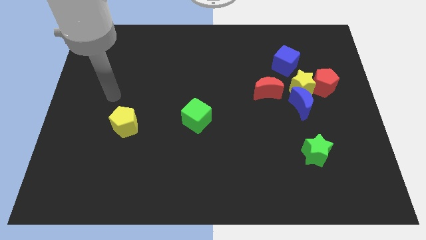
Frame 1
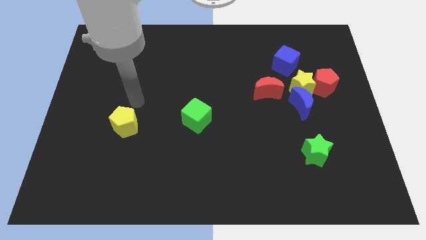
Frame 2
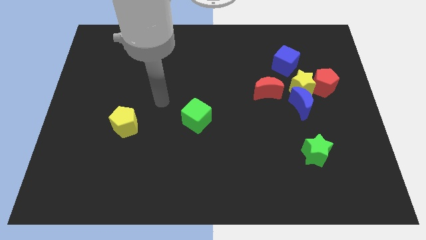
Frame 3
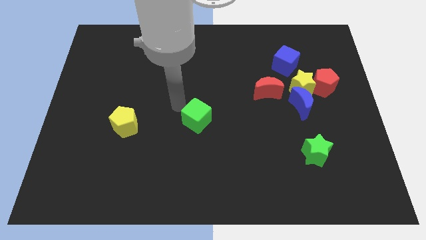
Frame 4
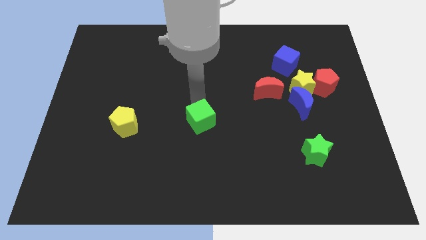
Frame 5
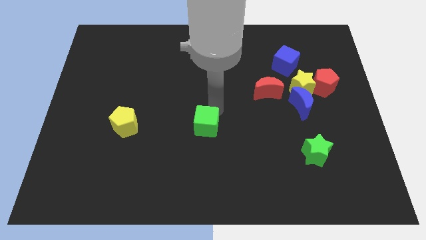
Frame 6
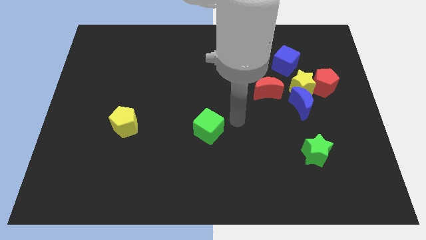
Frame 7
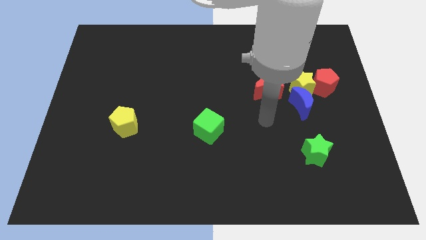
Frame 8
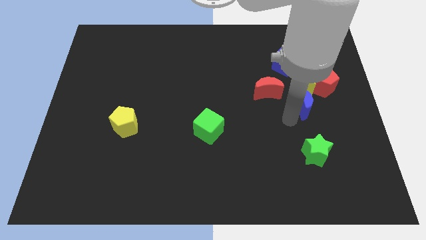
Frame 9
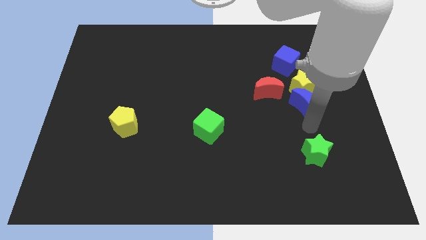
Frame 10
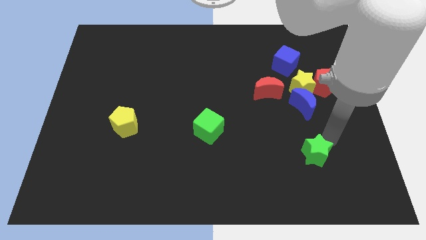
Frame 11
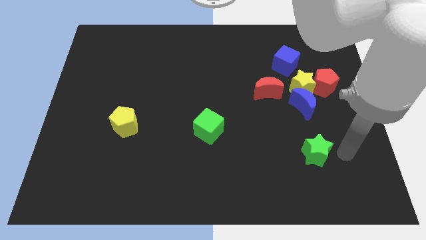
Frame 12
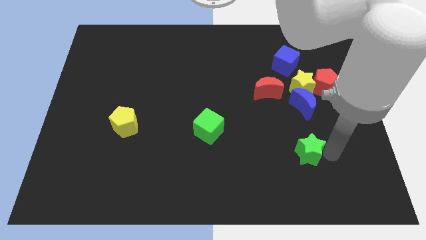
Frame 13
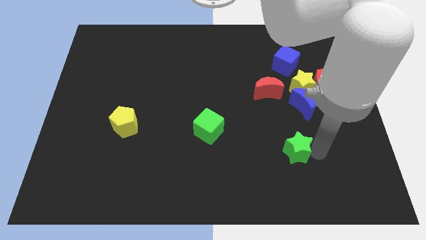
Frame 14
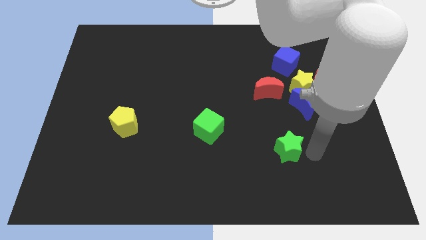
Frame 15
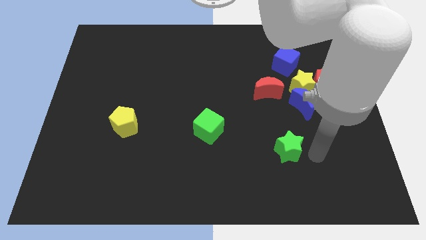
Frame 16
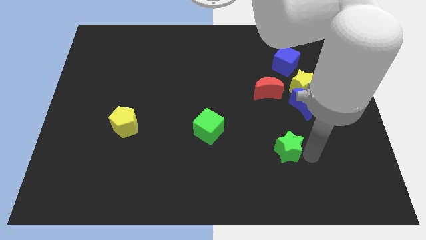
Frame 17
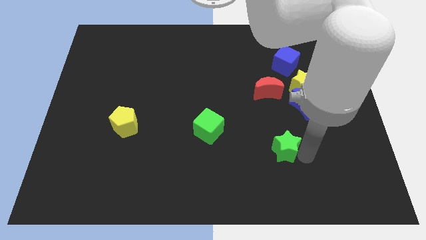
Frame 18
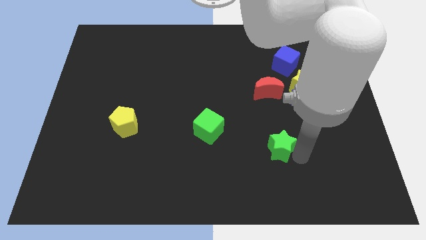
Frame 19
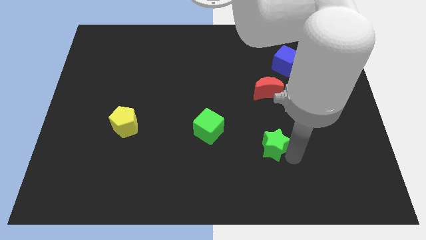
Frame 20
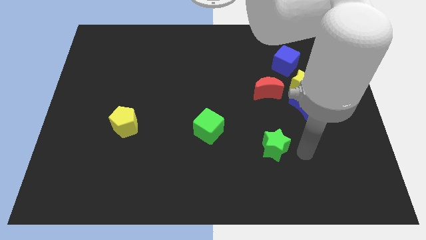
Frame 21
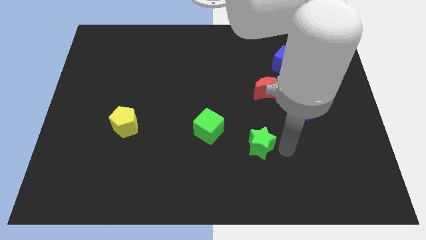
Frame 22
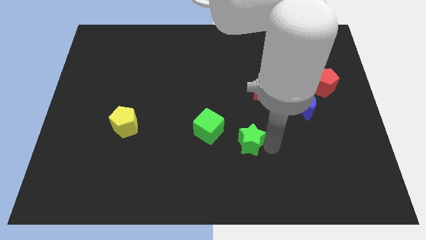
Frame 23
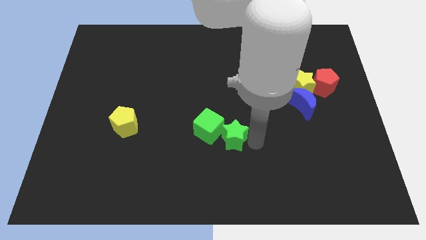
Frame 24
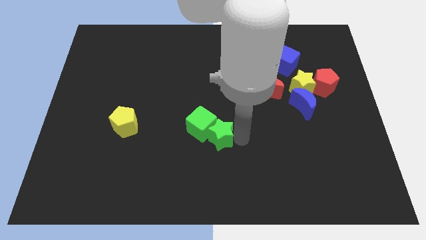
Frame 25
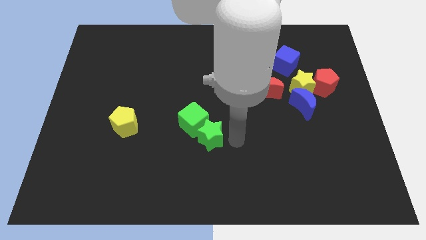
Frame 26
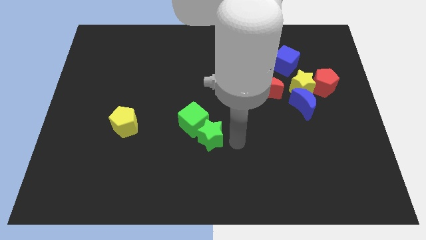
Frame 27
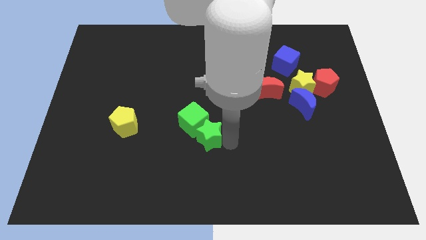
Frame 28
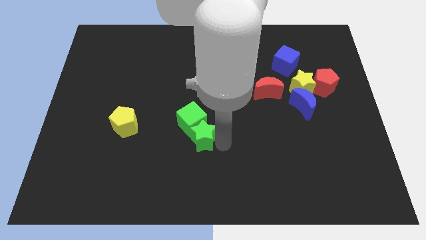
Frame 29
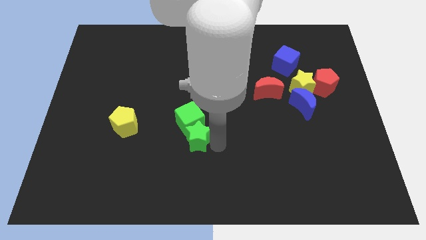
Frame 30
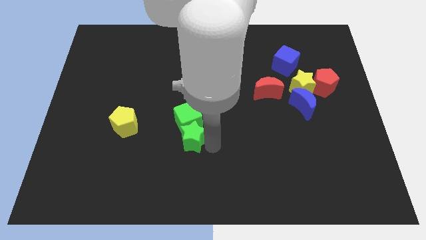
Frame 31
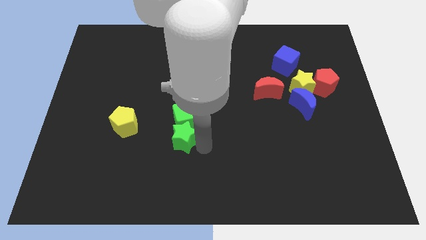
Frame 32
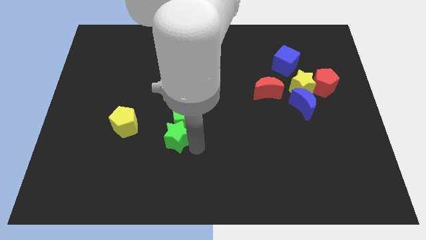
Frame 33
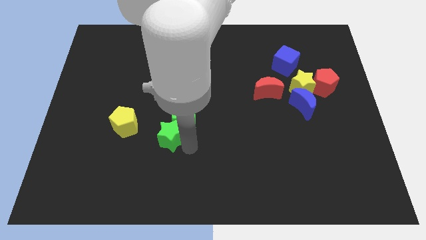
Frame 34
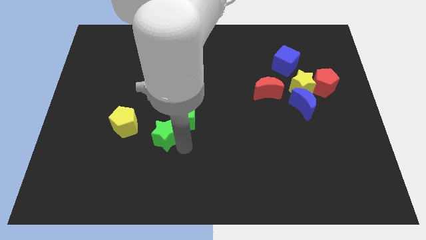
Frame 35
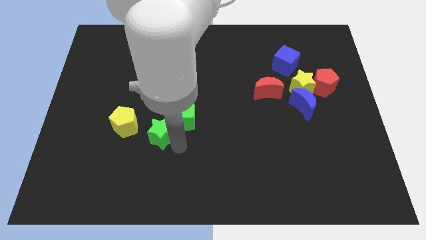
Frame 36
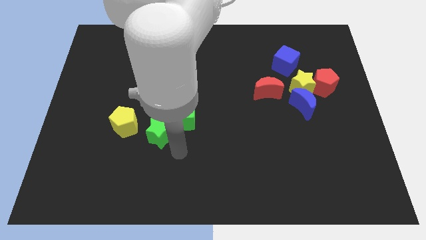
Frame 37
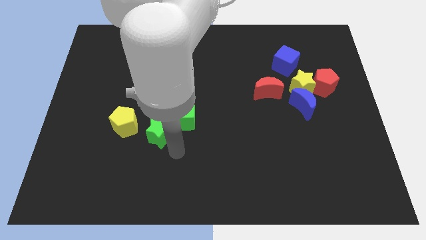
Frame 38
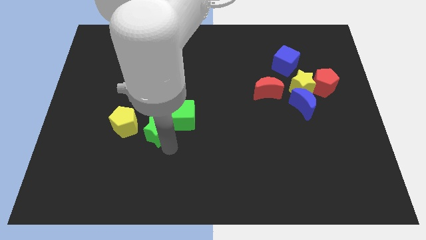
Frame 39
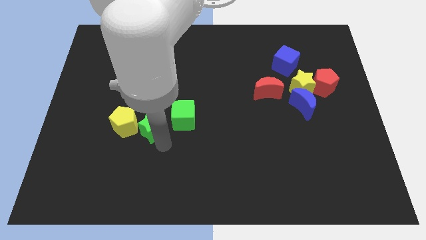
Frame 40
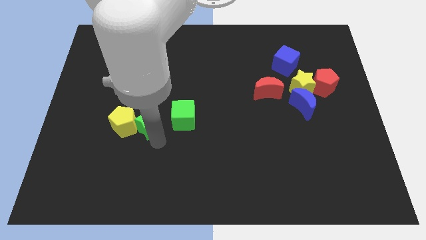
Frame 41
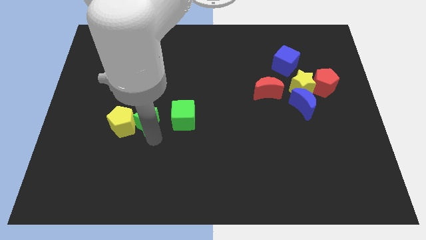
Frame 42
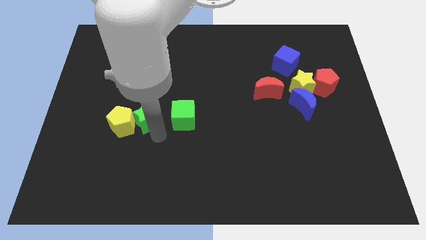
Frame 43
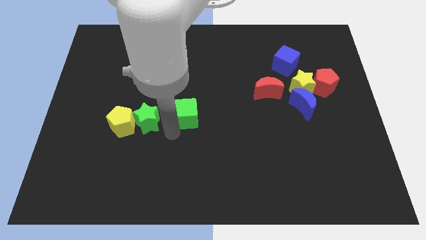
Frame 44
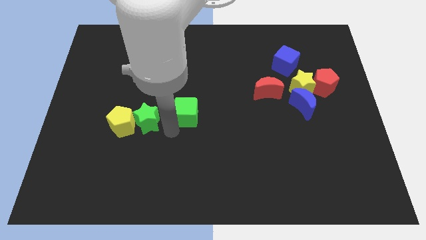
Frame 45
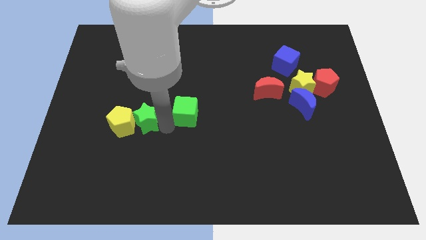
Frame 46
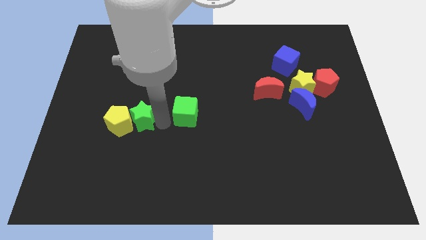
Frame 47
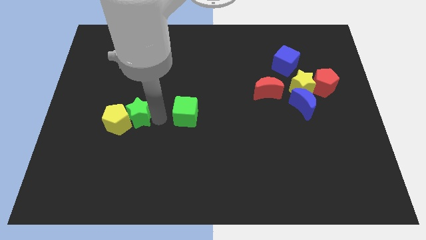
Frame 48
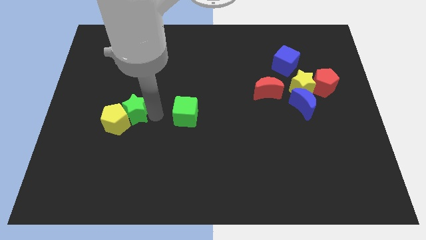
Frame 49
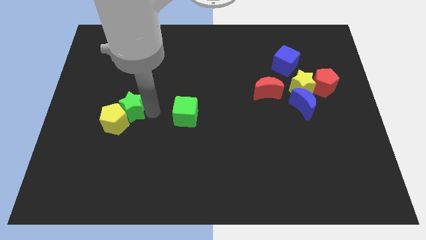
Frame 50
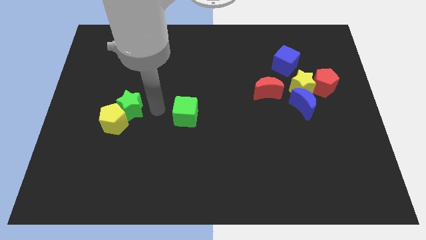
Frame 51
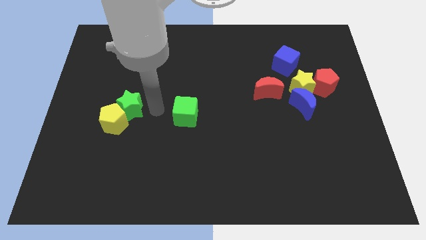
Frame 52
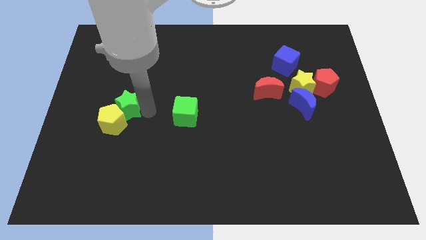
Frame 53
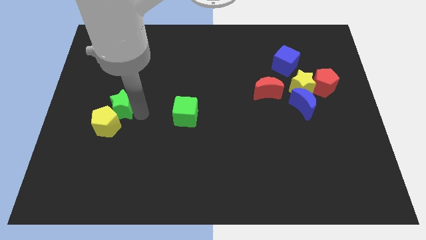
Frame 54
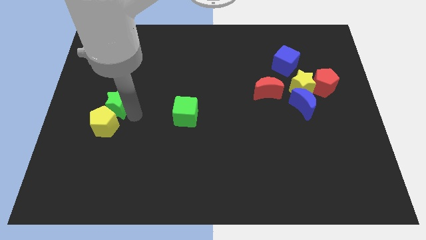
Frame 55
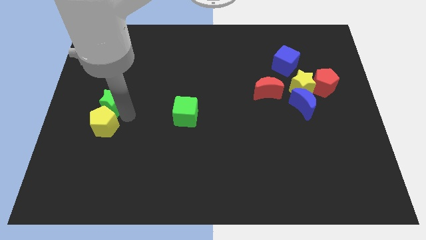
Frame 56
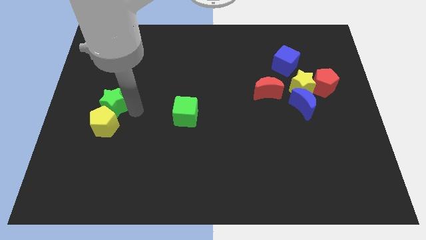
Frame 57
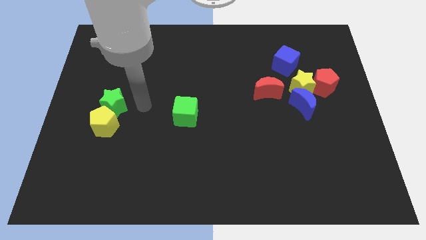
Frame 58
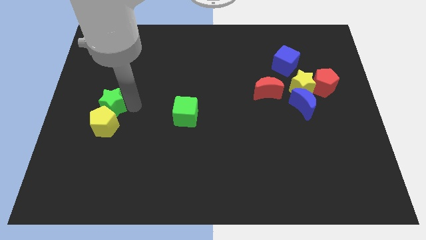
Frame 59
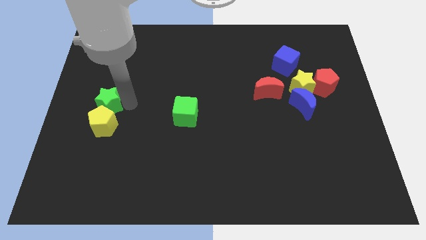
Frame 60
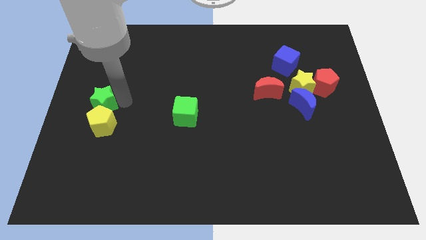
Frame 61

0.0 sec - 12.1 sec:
put the green star to the center left
